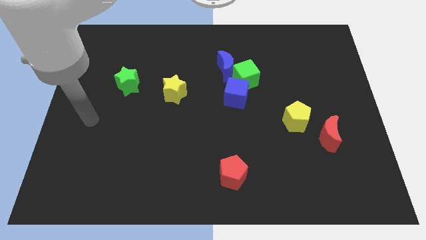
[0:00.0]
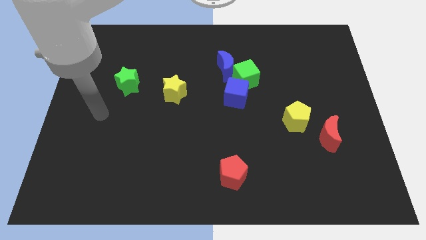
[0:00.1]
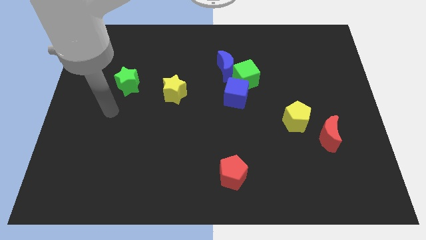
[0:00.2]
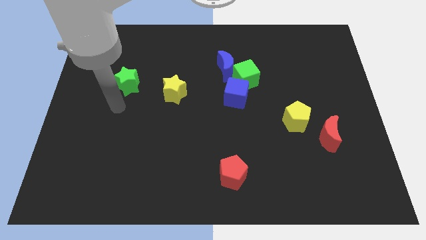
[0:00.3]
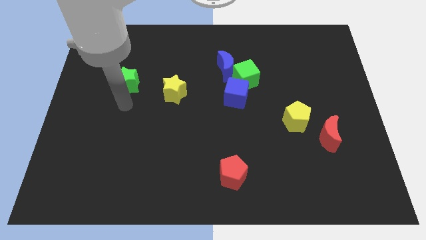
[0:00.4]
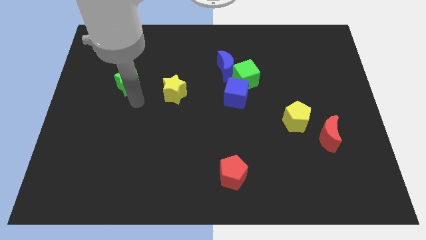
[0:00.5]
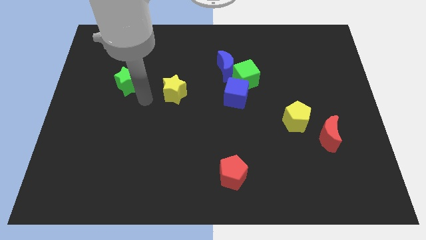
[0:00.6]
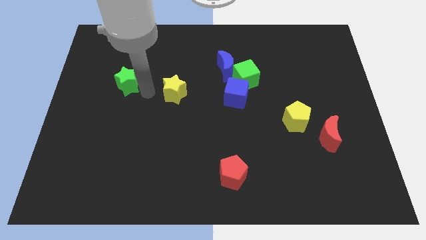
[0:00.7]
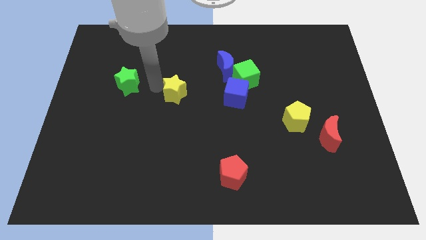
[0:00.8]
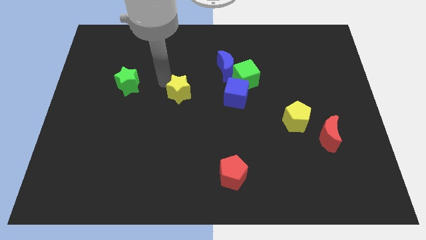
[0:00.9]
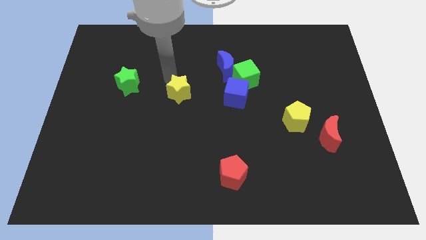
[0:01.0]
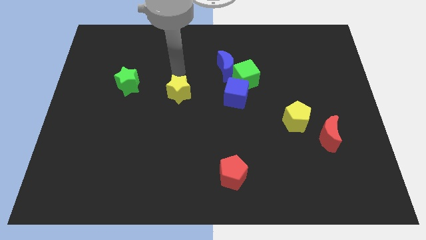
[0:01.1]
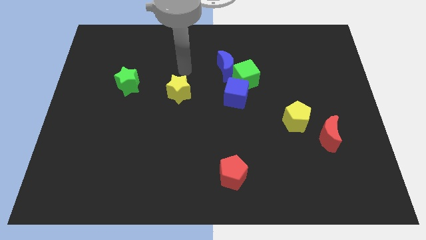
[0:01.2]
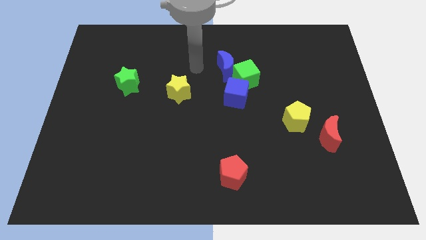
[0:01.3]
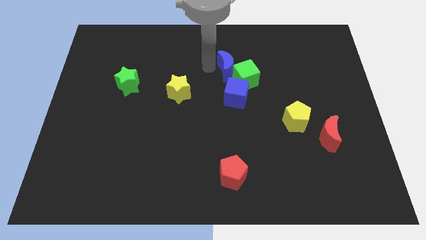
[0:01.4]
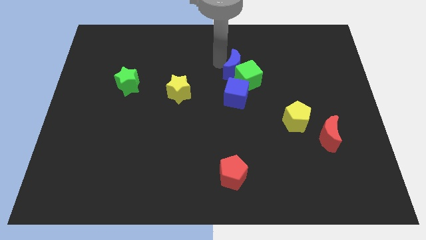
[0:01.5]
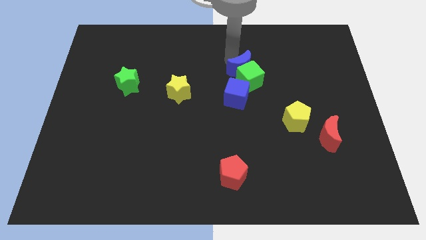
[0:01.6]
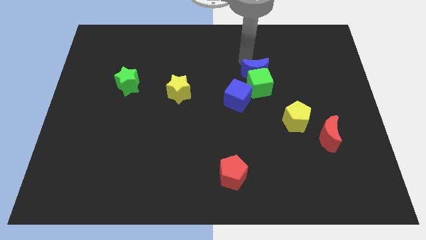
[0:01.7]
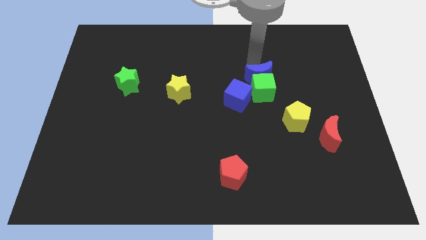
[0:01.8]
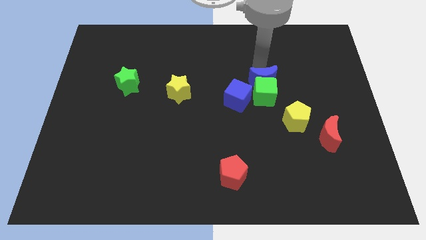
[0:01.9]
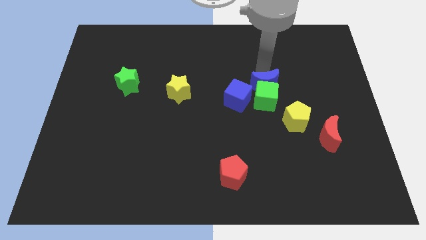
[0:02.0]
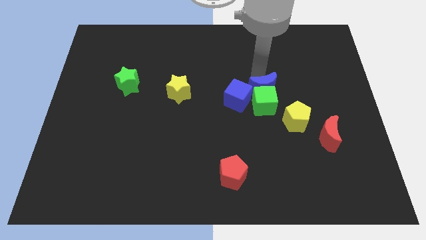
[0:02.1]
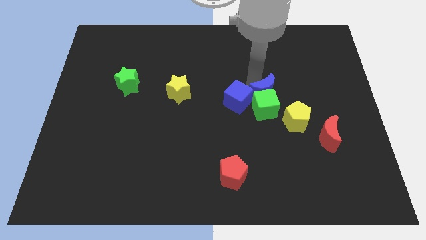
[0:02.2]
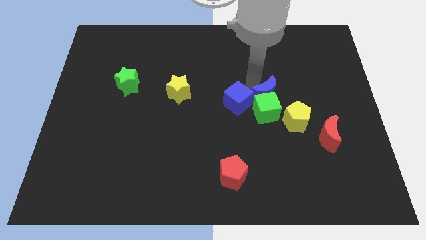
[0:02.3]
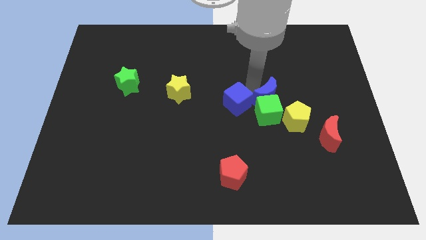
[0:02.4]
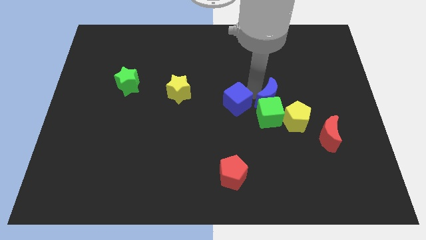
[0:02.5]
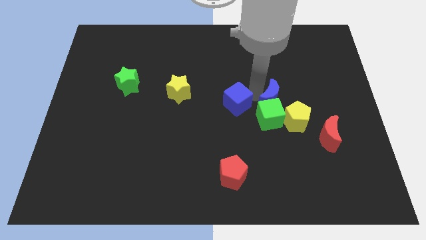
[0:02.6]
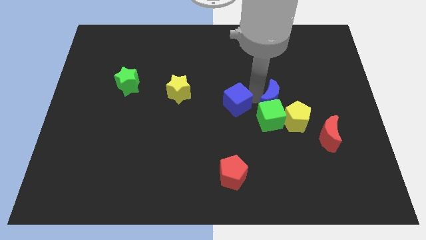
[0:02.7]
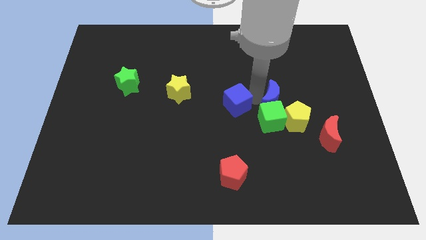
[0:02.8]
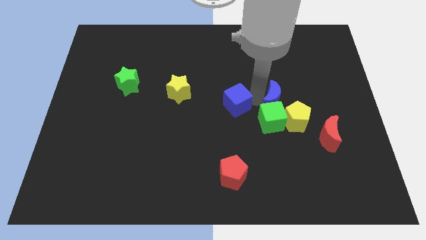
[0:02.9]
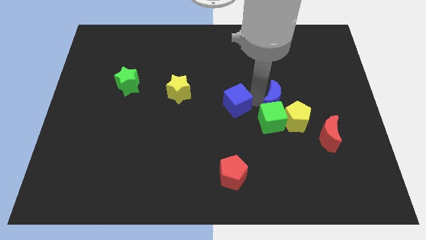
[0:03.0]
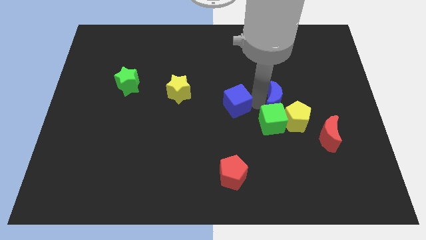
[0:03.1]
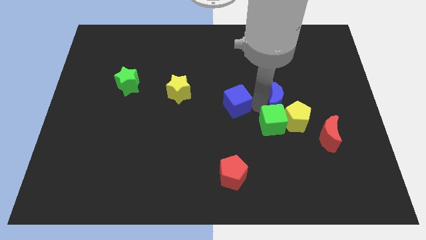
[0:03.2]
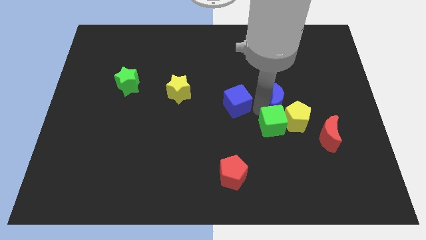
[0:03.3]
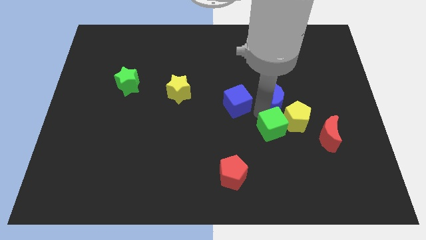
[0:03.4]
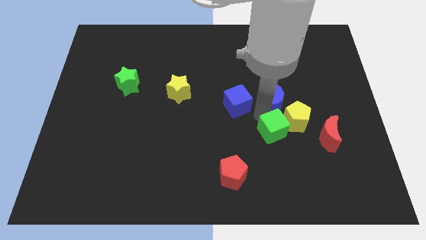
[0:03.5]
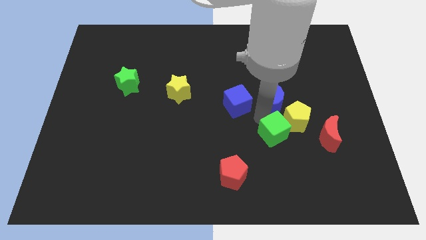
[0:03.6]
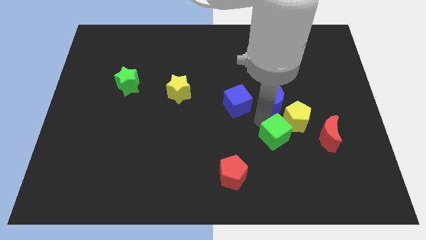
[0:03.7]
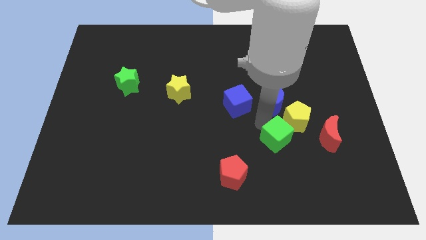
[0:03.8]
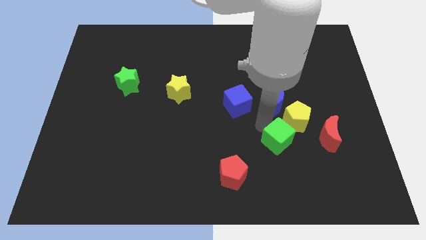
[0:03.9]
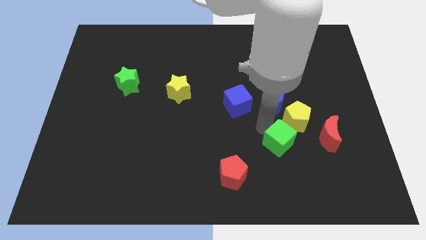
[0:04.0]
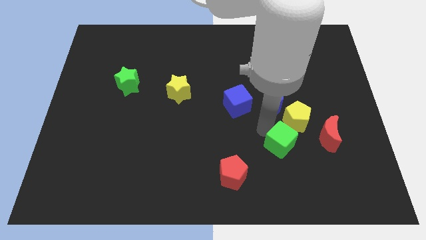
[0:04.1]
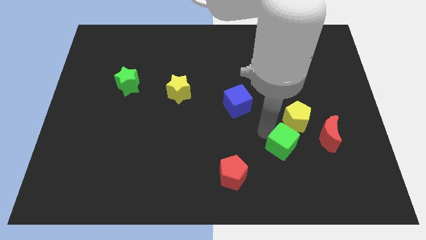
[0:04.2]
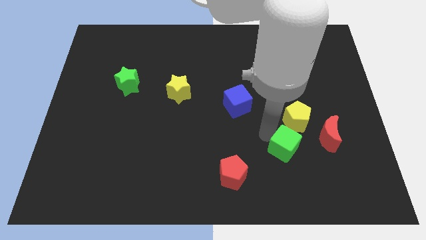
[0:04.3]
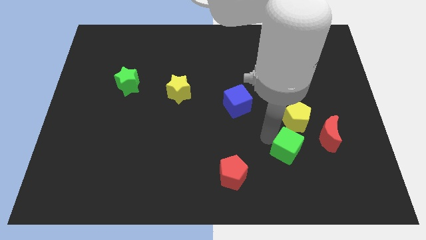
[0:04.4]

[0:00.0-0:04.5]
push the green cube to the bottom left side of the red moon

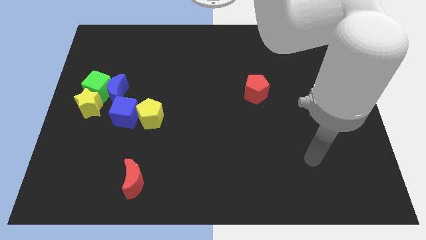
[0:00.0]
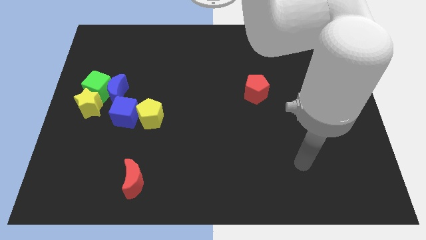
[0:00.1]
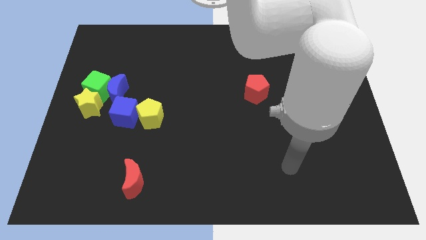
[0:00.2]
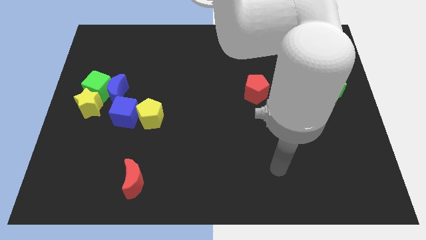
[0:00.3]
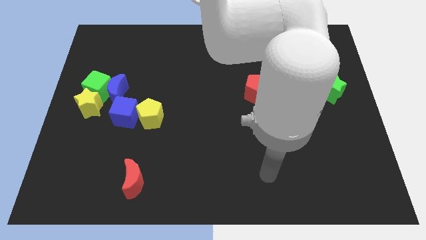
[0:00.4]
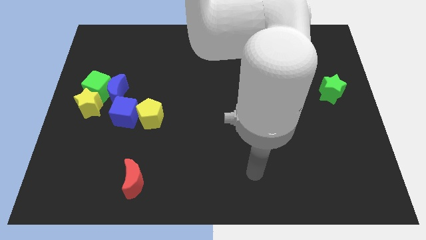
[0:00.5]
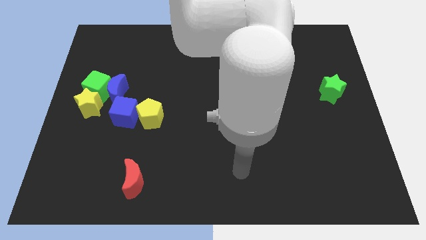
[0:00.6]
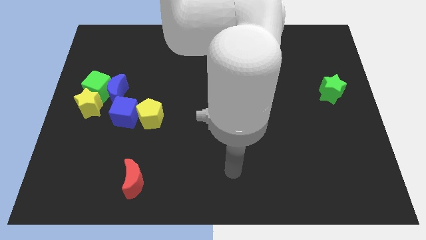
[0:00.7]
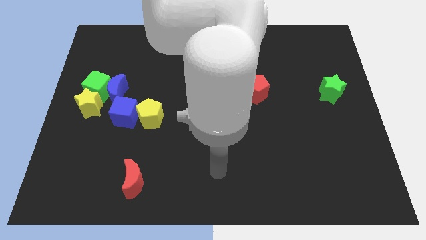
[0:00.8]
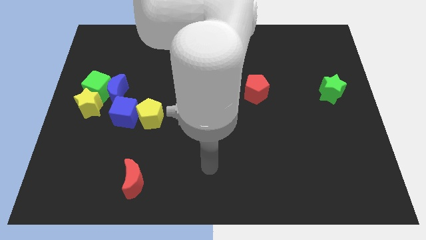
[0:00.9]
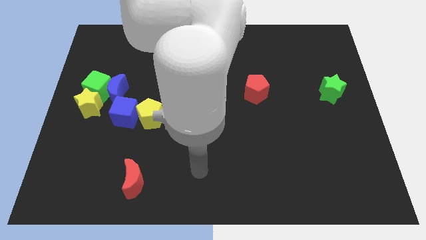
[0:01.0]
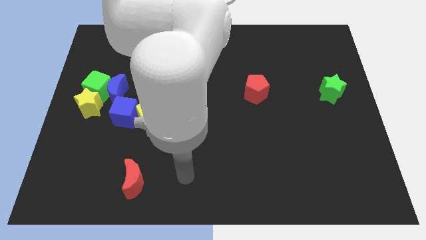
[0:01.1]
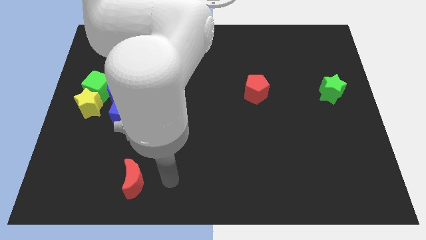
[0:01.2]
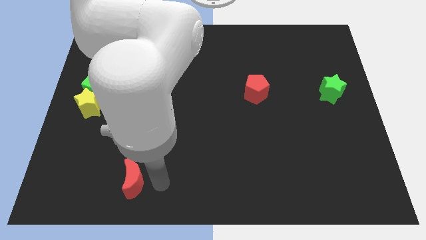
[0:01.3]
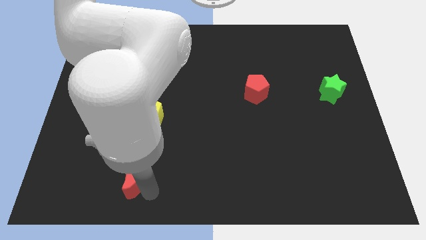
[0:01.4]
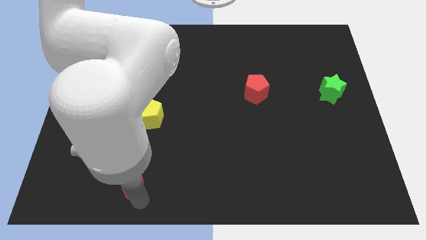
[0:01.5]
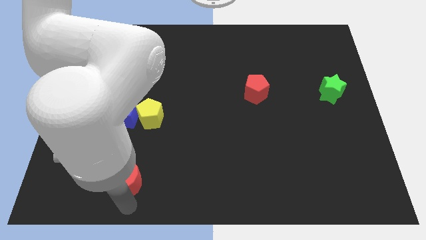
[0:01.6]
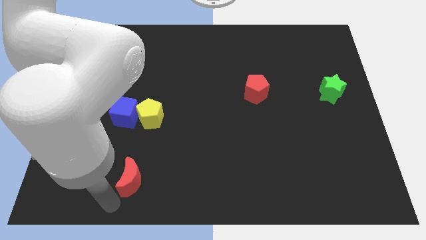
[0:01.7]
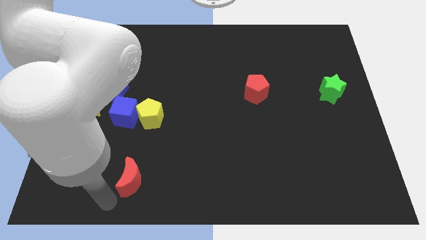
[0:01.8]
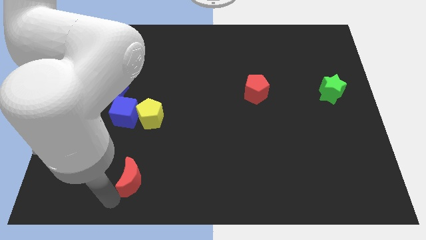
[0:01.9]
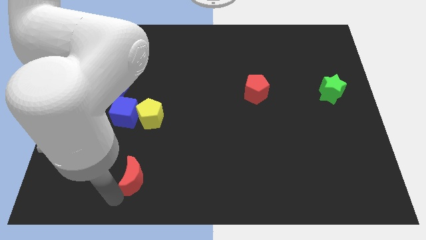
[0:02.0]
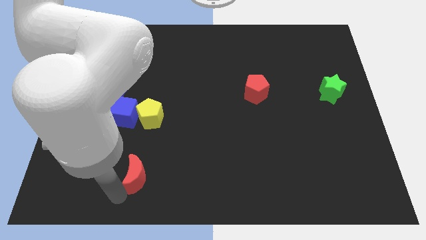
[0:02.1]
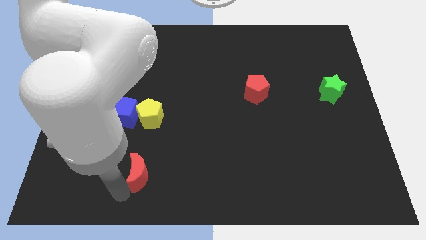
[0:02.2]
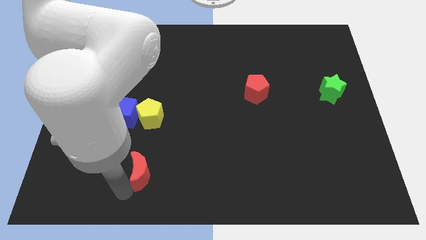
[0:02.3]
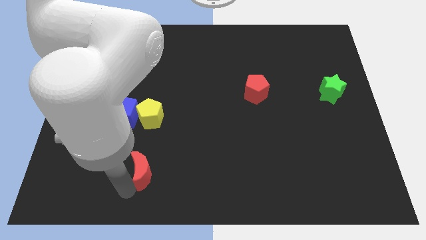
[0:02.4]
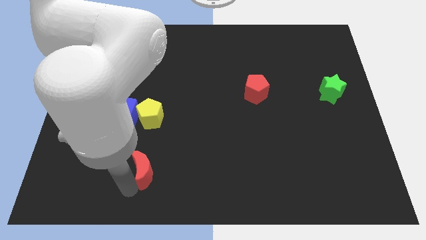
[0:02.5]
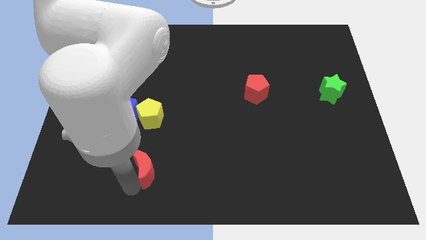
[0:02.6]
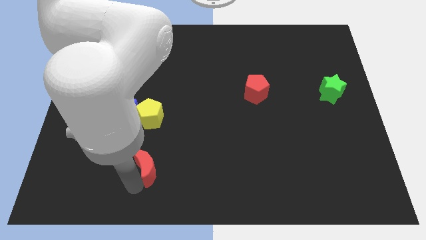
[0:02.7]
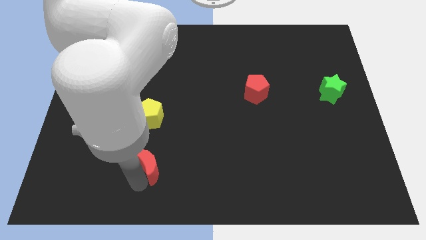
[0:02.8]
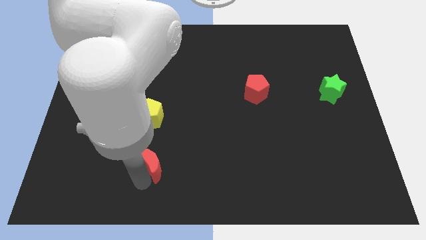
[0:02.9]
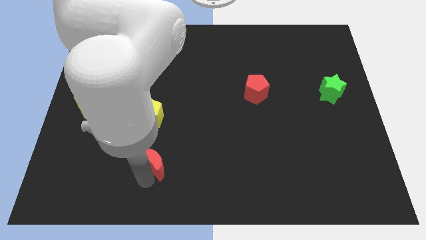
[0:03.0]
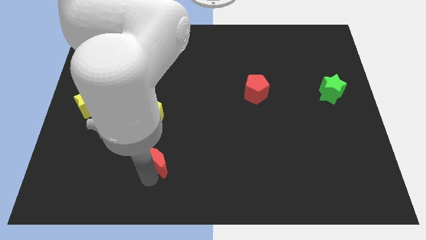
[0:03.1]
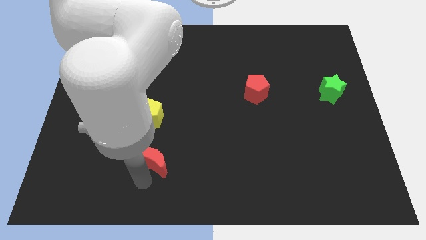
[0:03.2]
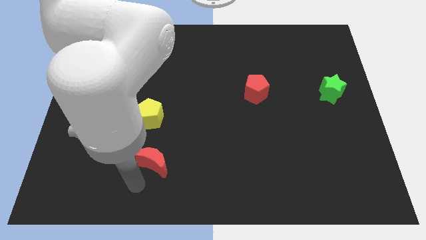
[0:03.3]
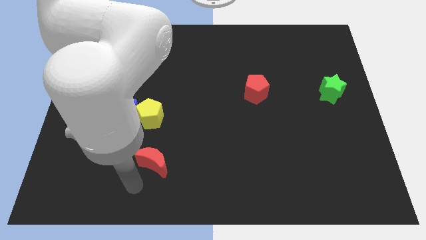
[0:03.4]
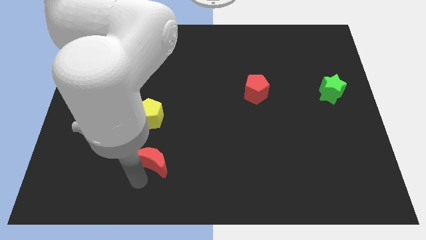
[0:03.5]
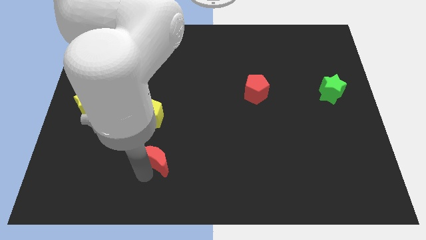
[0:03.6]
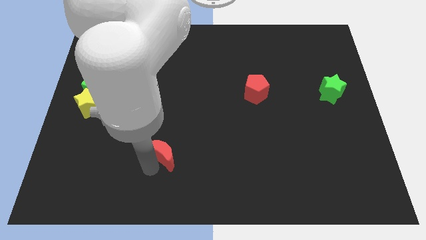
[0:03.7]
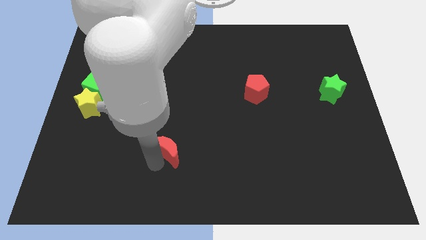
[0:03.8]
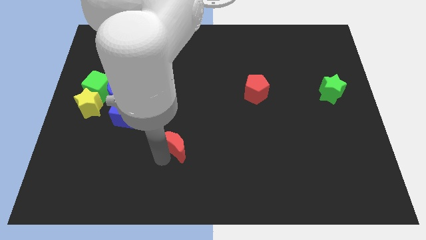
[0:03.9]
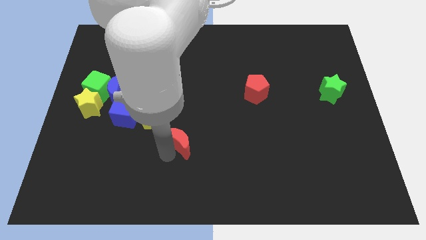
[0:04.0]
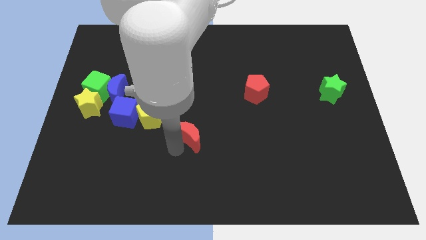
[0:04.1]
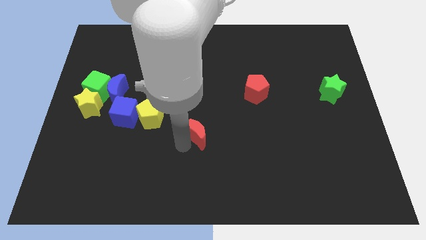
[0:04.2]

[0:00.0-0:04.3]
slide the red moon to the right side of the yellow pentagon
